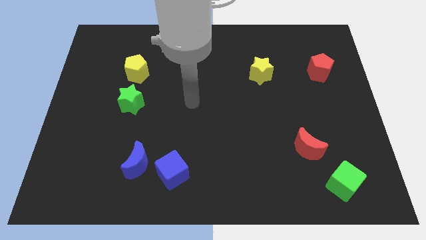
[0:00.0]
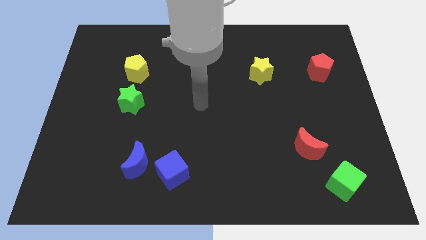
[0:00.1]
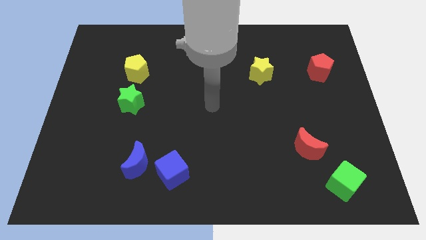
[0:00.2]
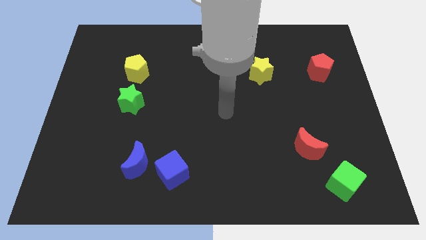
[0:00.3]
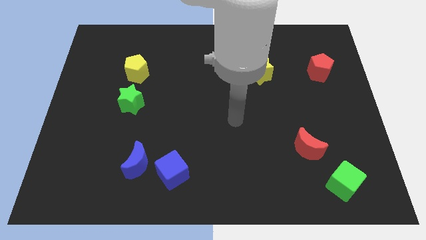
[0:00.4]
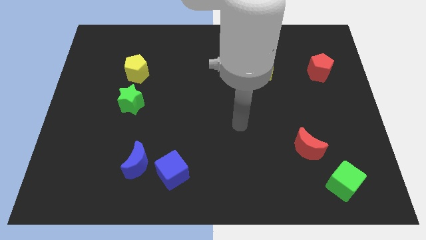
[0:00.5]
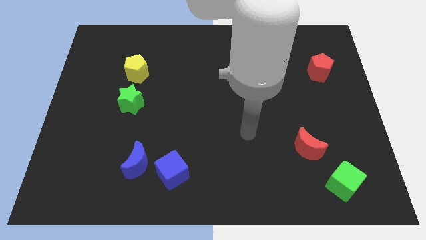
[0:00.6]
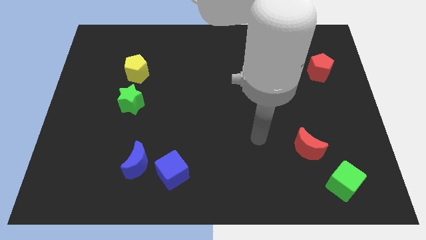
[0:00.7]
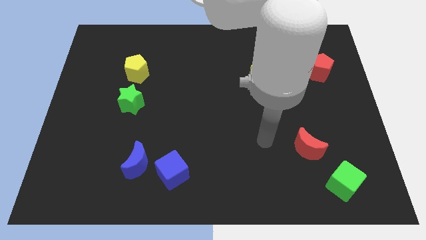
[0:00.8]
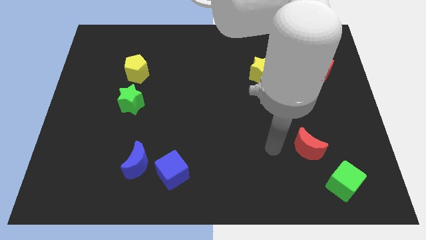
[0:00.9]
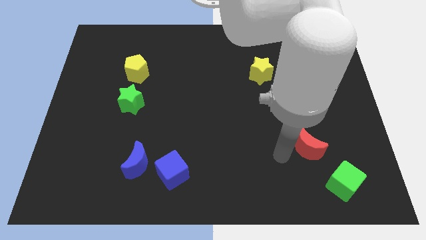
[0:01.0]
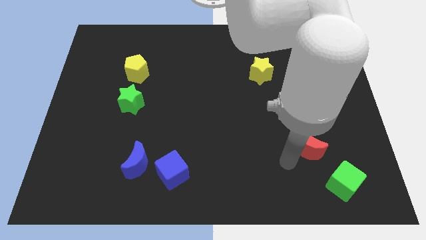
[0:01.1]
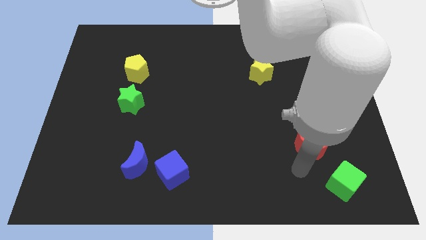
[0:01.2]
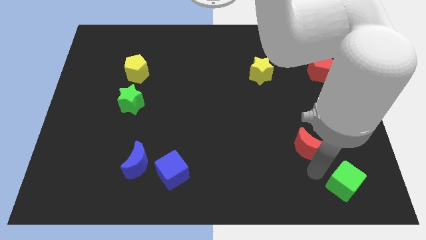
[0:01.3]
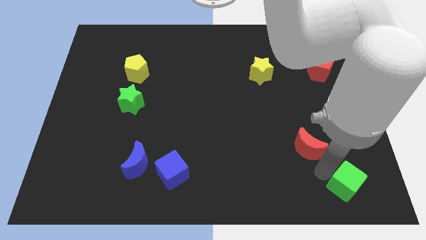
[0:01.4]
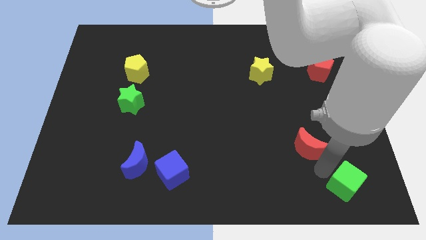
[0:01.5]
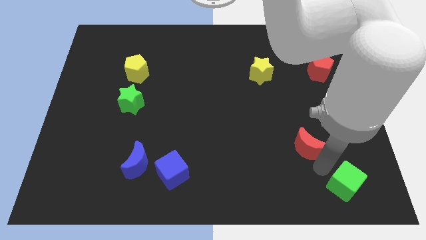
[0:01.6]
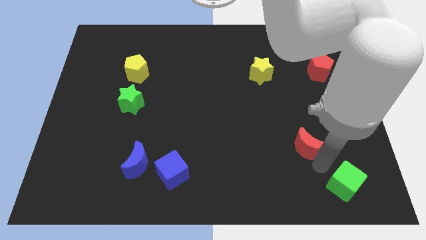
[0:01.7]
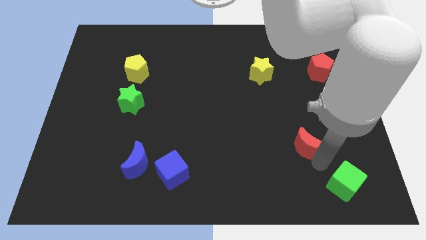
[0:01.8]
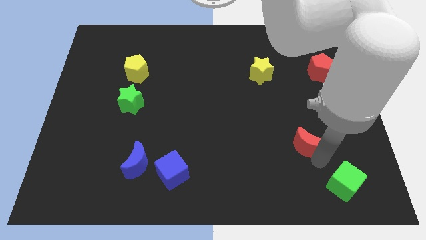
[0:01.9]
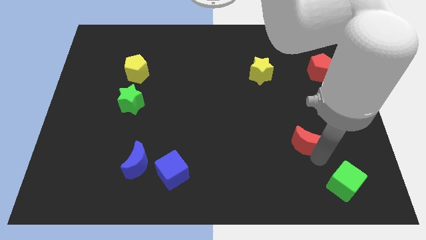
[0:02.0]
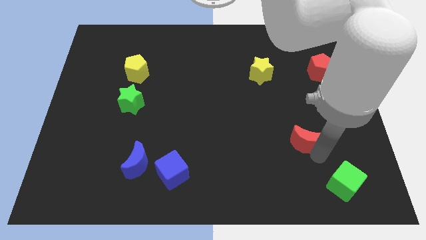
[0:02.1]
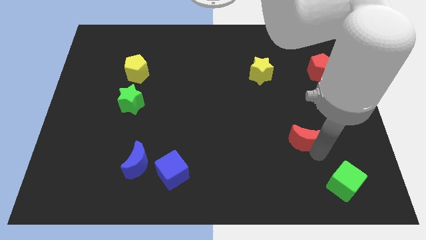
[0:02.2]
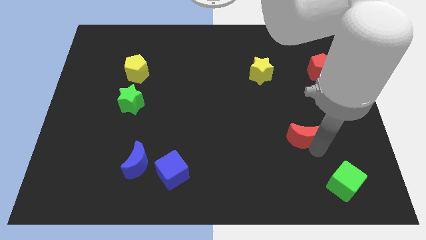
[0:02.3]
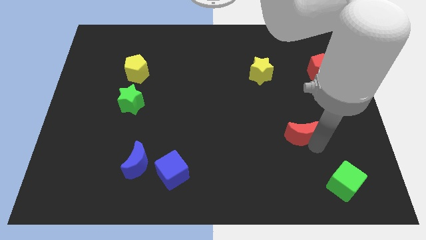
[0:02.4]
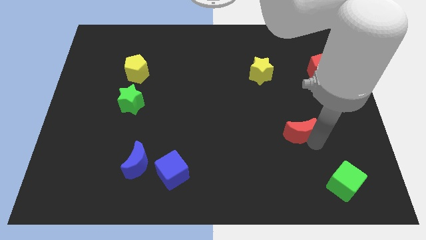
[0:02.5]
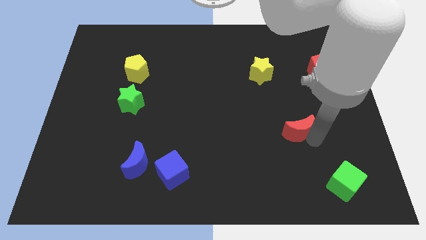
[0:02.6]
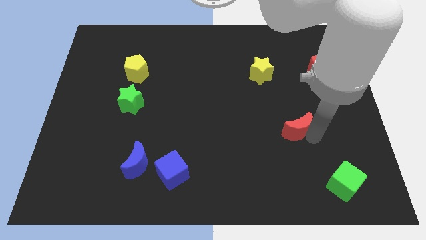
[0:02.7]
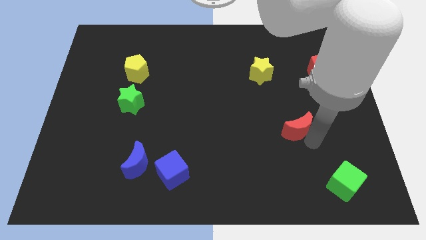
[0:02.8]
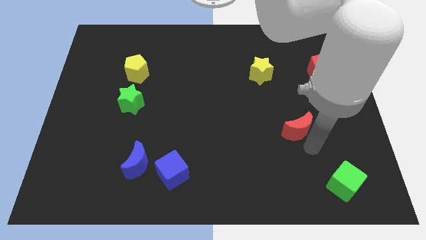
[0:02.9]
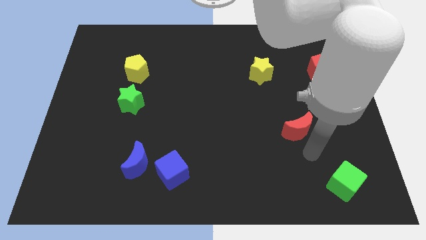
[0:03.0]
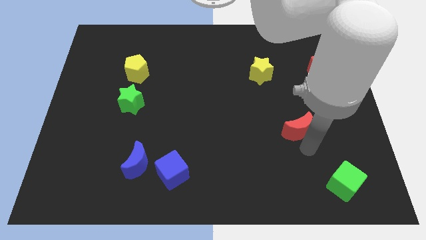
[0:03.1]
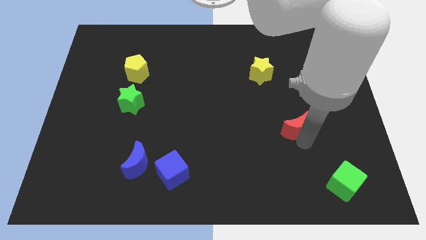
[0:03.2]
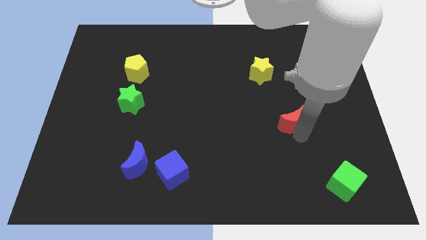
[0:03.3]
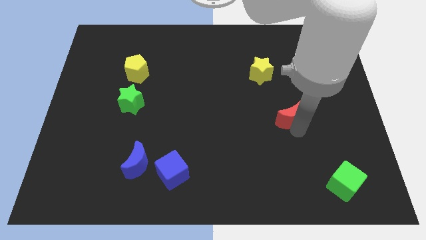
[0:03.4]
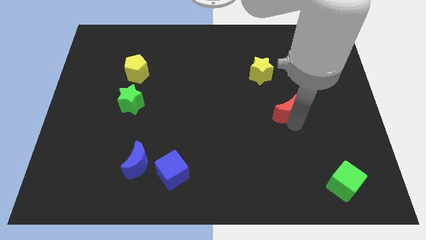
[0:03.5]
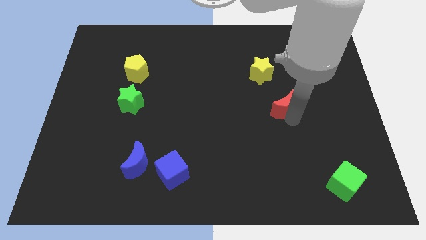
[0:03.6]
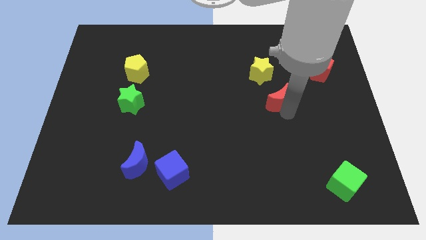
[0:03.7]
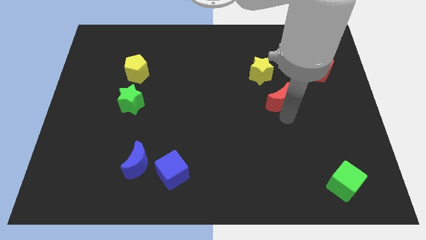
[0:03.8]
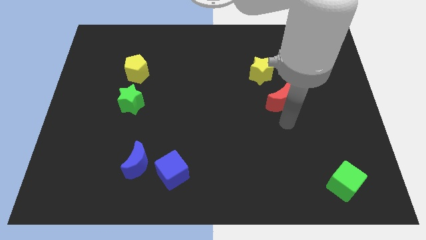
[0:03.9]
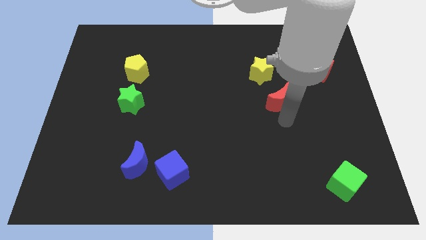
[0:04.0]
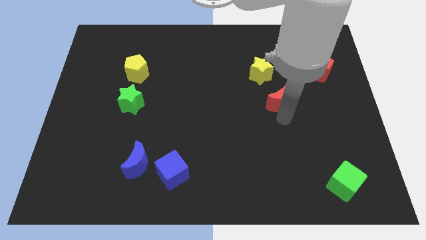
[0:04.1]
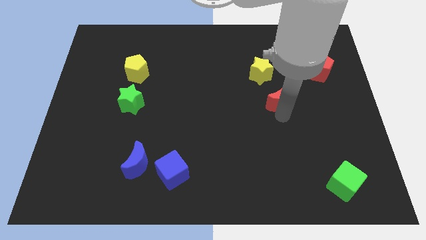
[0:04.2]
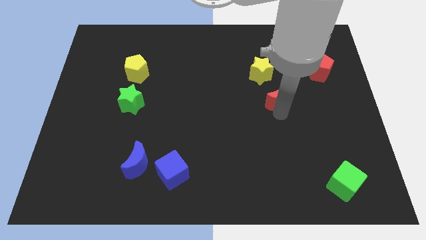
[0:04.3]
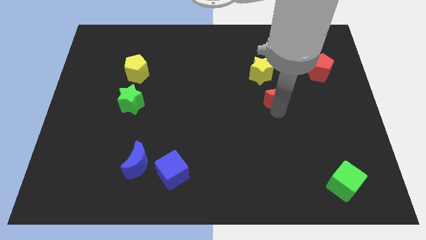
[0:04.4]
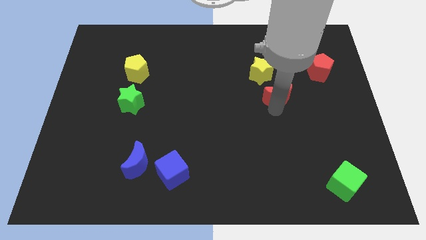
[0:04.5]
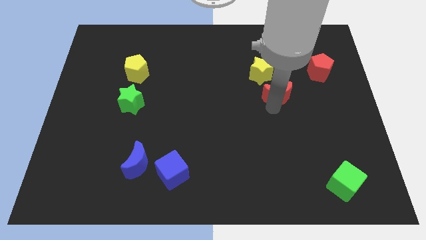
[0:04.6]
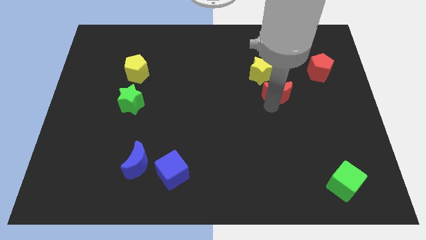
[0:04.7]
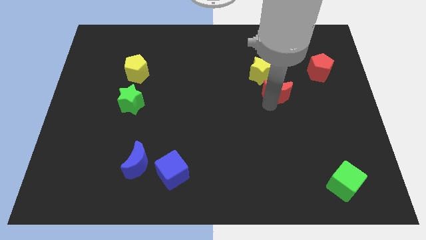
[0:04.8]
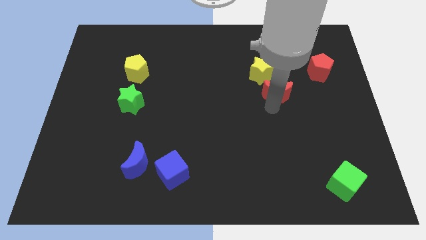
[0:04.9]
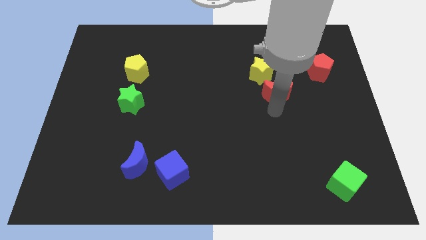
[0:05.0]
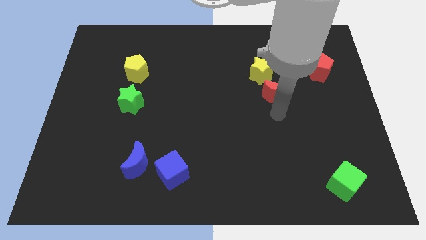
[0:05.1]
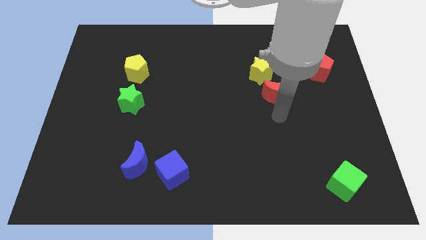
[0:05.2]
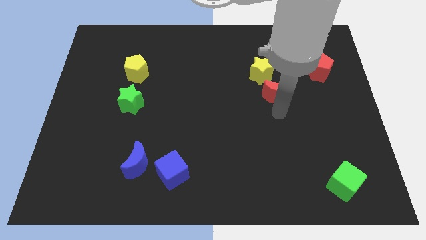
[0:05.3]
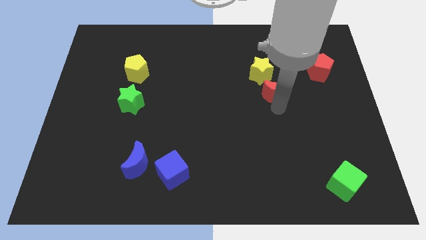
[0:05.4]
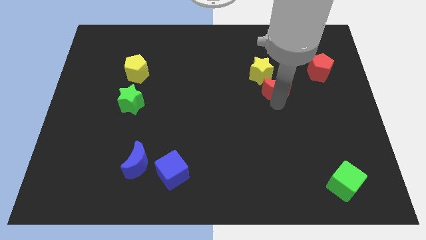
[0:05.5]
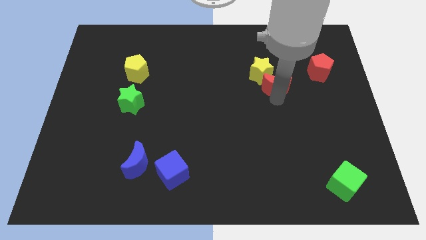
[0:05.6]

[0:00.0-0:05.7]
move the red moon next to the yellow star

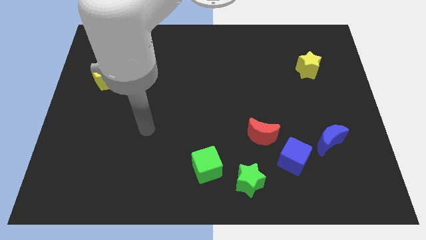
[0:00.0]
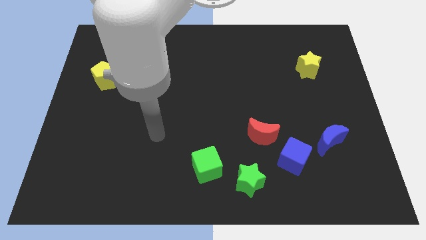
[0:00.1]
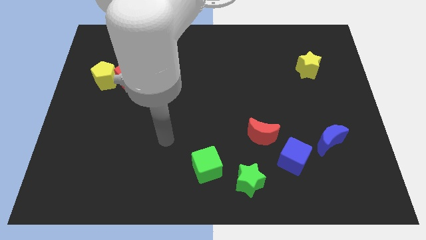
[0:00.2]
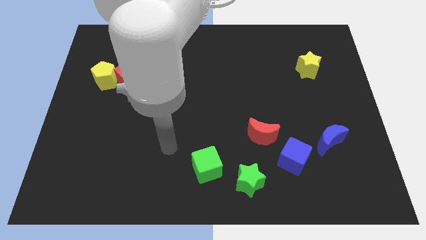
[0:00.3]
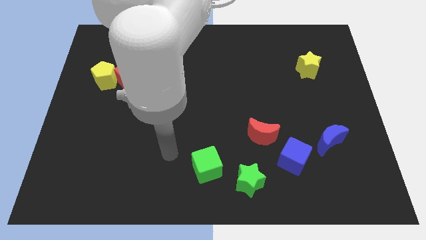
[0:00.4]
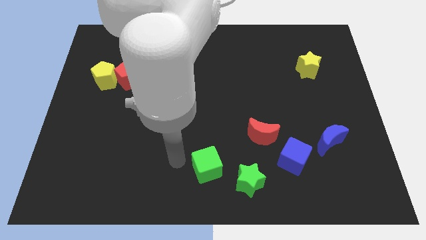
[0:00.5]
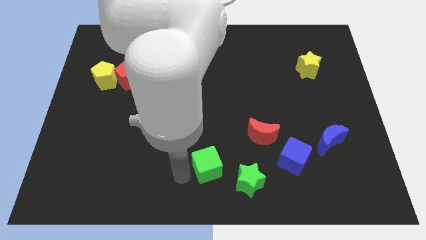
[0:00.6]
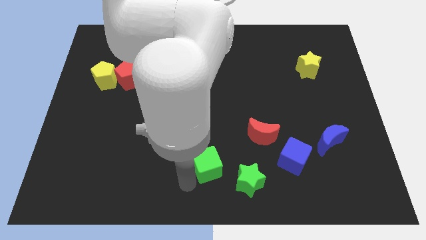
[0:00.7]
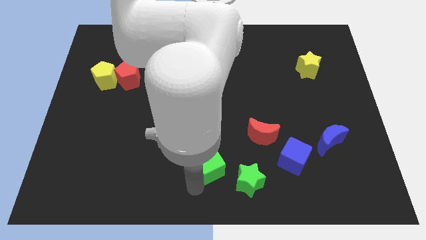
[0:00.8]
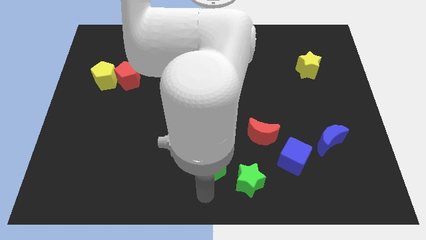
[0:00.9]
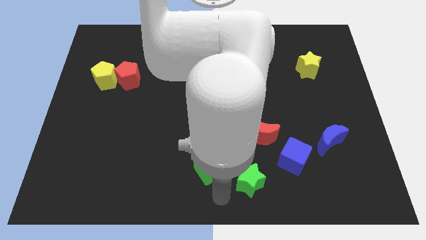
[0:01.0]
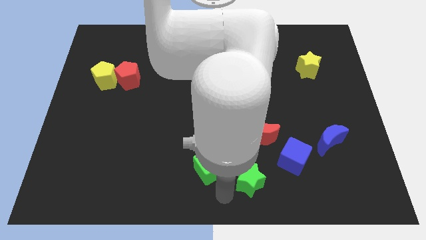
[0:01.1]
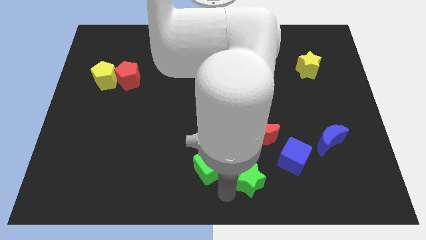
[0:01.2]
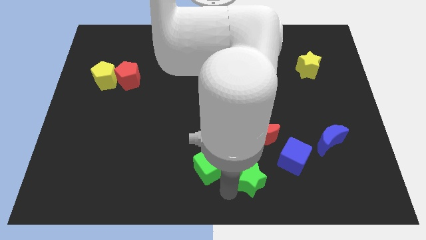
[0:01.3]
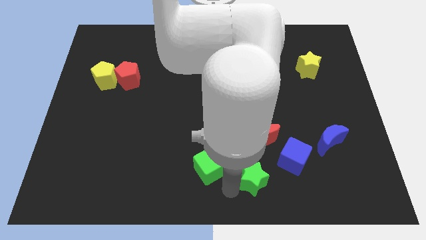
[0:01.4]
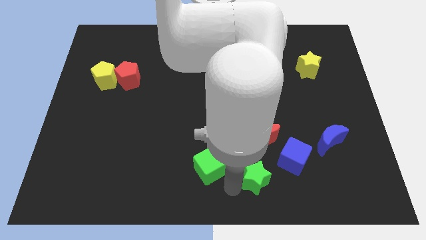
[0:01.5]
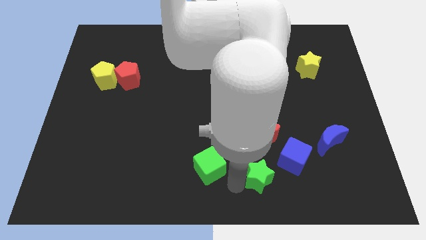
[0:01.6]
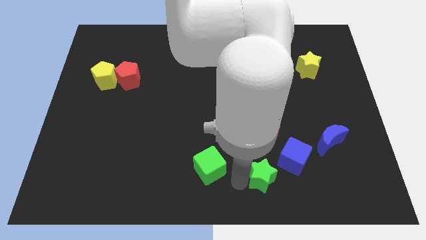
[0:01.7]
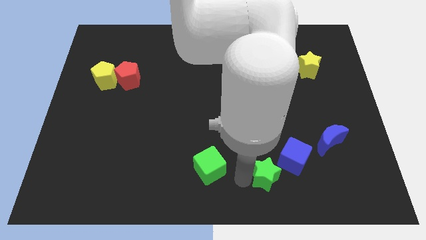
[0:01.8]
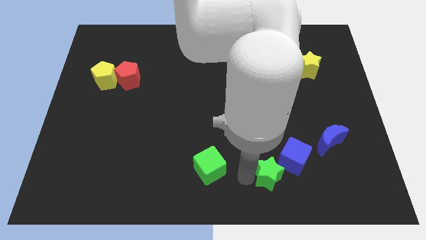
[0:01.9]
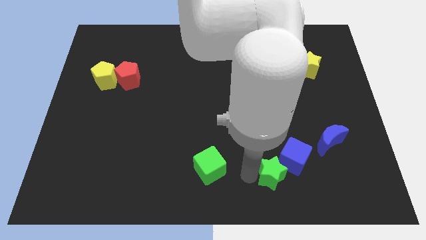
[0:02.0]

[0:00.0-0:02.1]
move the green star next to the blue cube
